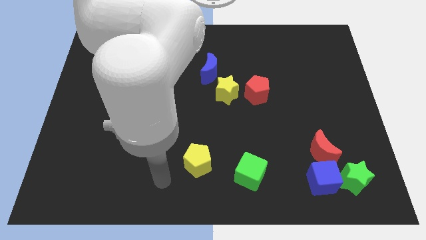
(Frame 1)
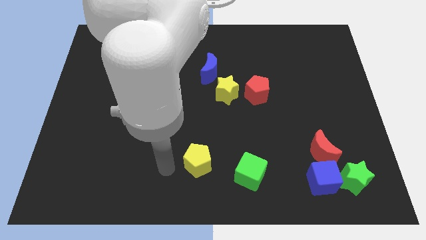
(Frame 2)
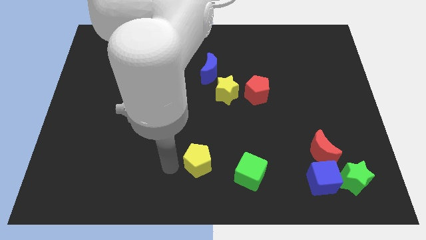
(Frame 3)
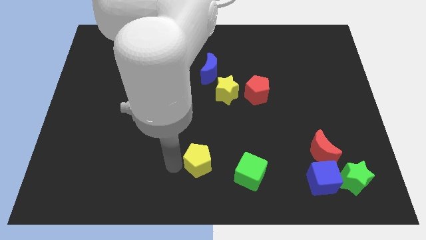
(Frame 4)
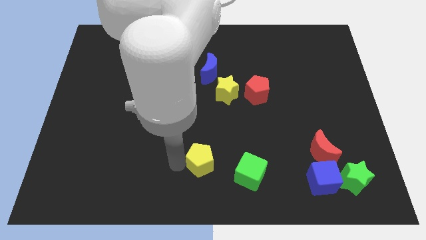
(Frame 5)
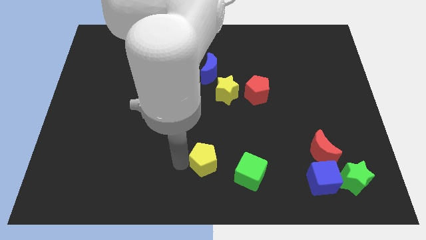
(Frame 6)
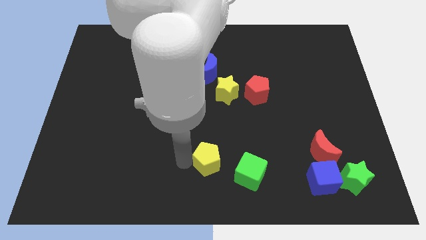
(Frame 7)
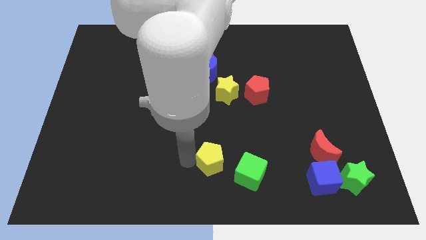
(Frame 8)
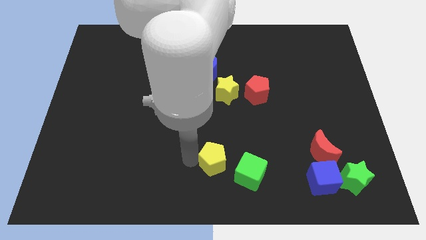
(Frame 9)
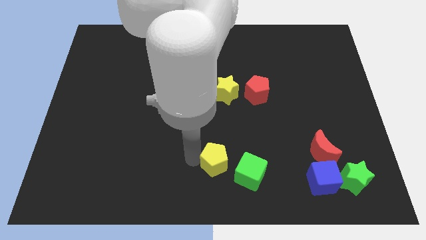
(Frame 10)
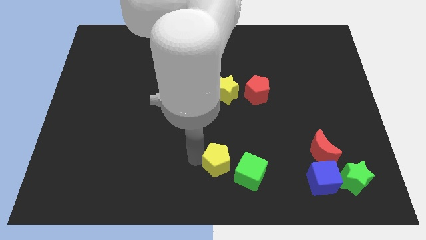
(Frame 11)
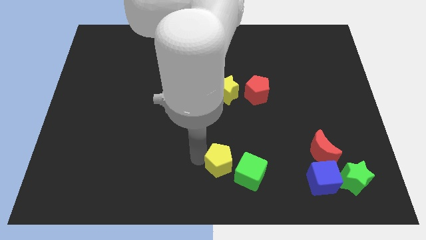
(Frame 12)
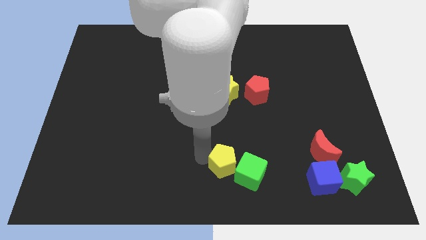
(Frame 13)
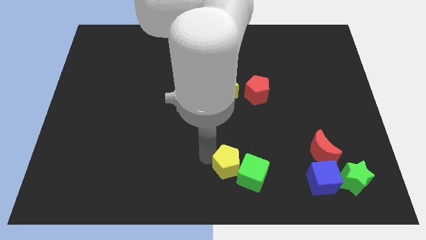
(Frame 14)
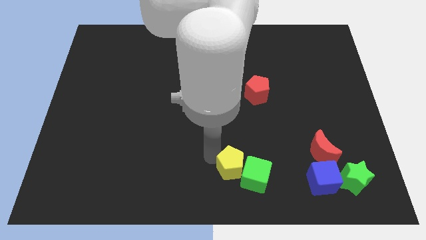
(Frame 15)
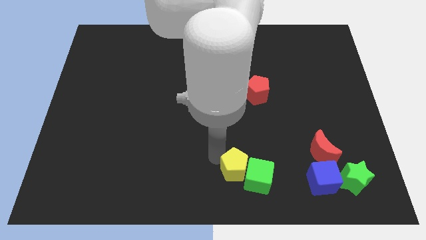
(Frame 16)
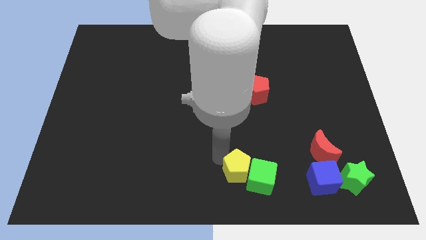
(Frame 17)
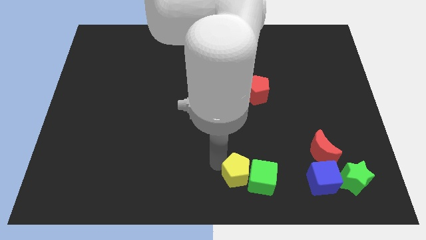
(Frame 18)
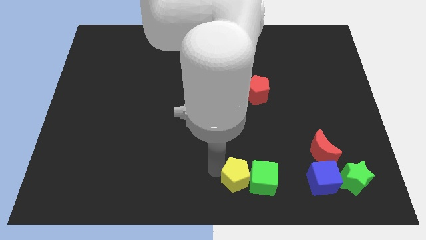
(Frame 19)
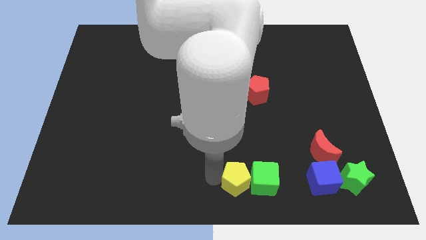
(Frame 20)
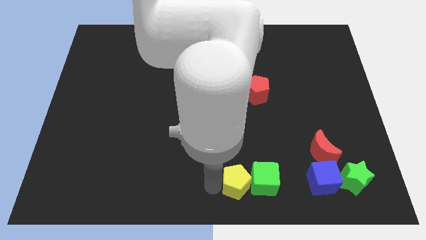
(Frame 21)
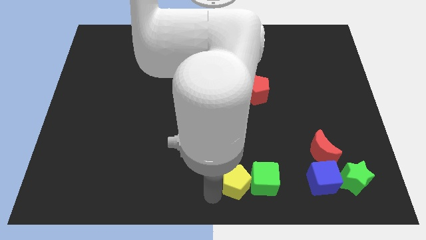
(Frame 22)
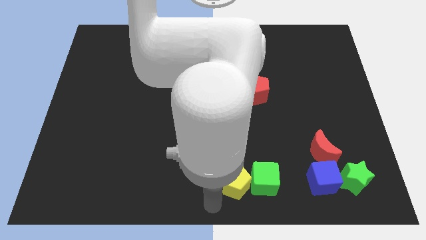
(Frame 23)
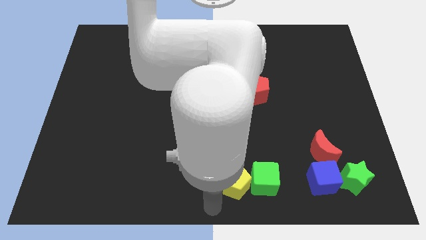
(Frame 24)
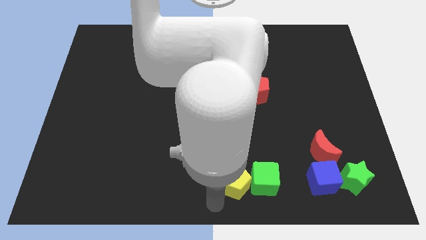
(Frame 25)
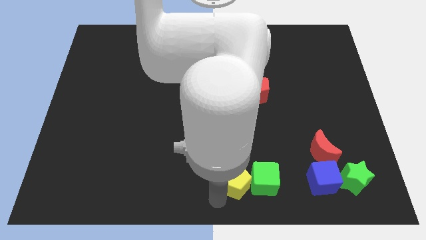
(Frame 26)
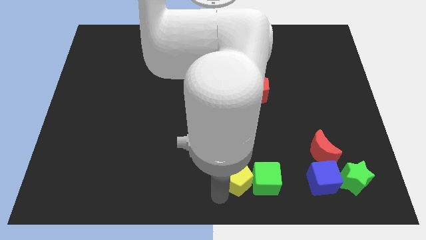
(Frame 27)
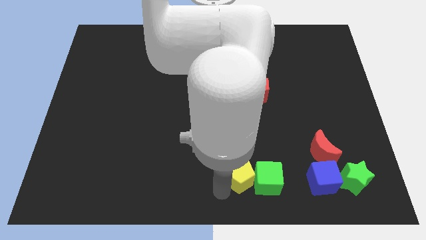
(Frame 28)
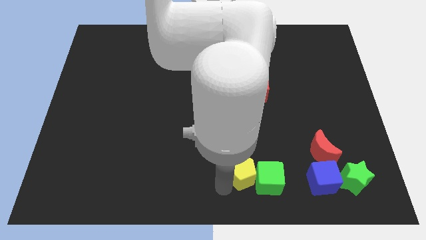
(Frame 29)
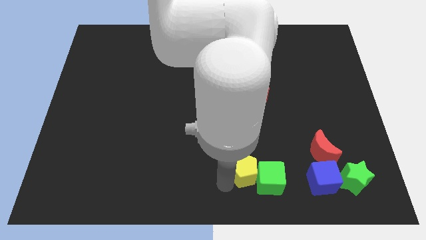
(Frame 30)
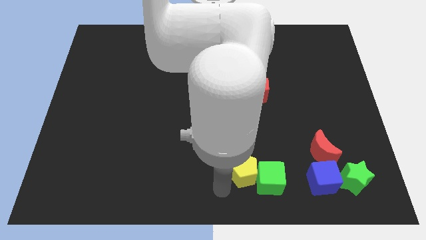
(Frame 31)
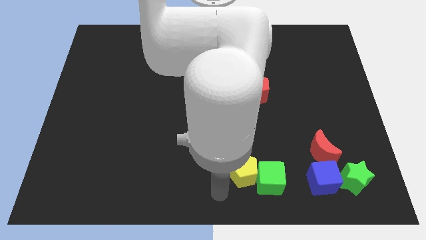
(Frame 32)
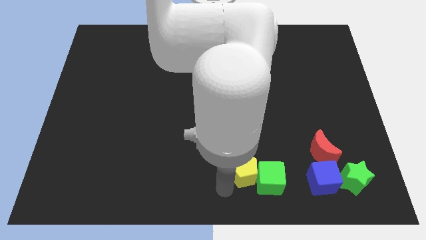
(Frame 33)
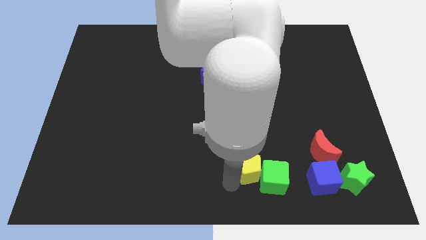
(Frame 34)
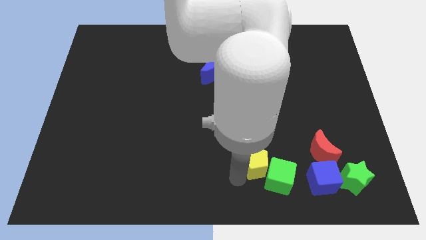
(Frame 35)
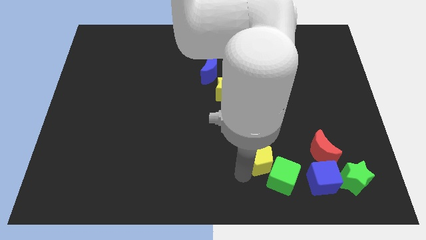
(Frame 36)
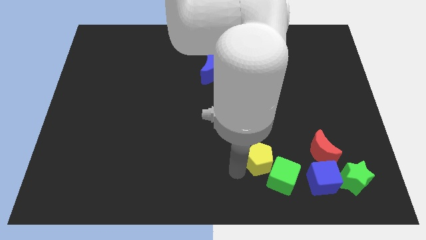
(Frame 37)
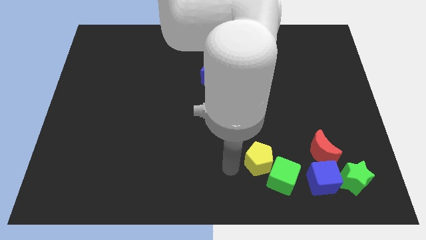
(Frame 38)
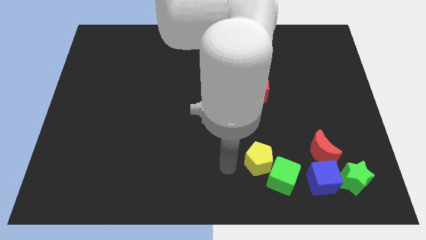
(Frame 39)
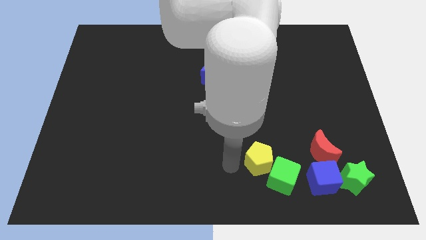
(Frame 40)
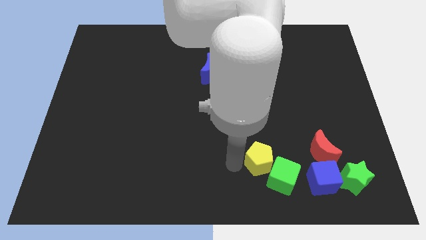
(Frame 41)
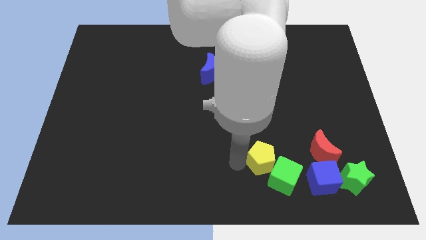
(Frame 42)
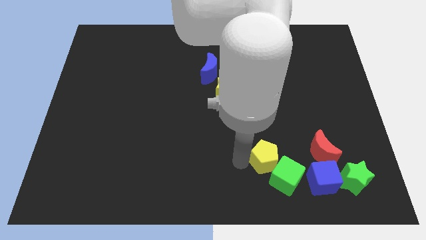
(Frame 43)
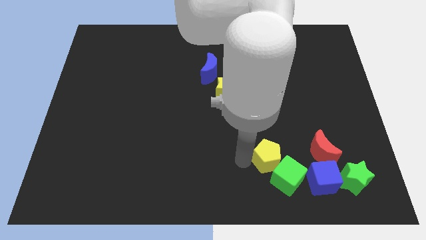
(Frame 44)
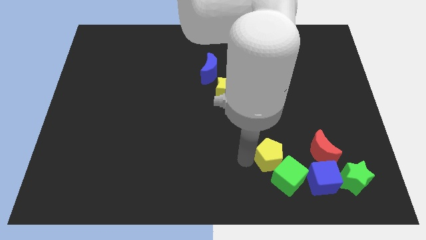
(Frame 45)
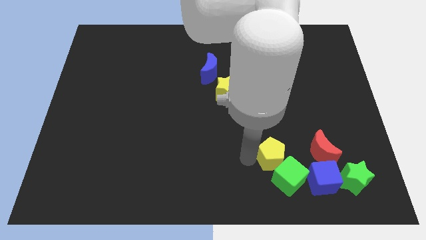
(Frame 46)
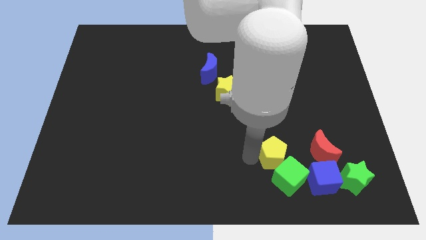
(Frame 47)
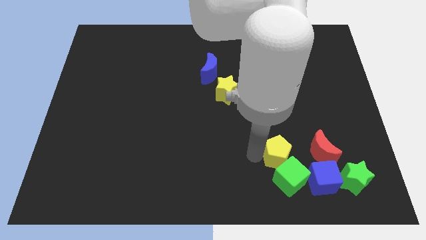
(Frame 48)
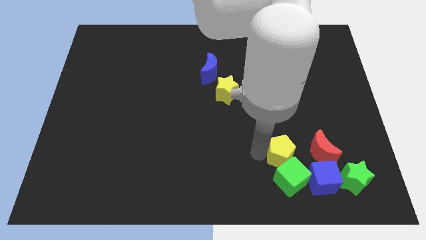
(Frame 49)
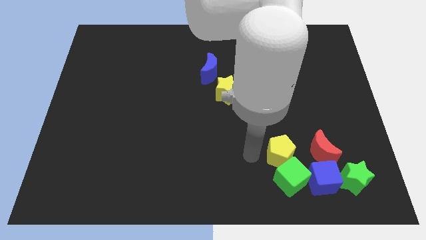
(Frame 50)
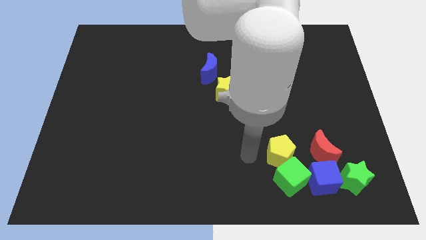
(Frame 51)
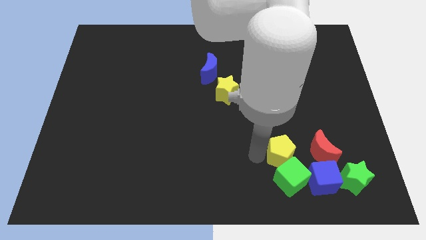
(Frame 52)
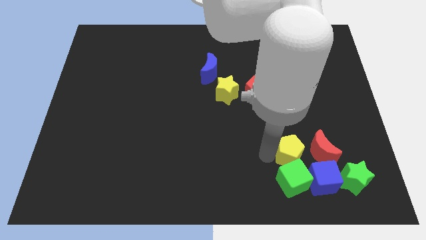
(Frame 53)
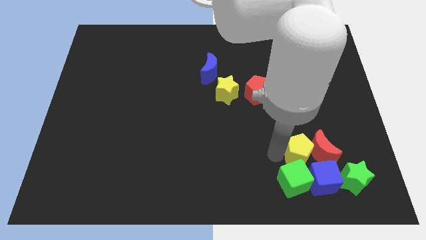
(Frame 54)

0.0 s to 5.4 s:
slide the yellow pentagon towards the red moon
